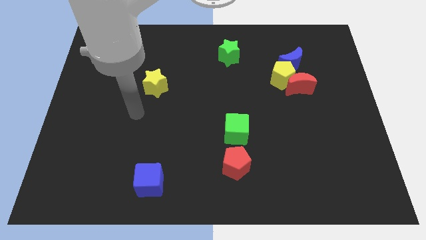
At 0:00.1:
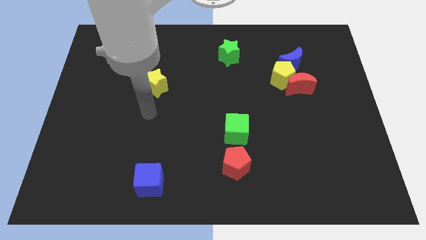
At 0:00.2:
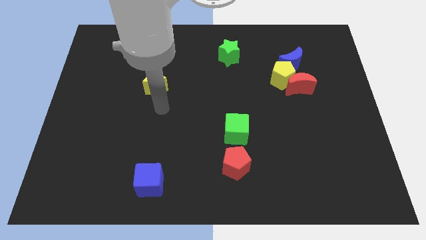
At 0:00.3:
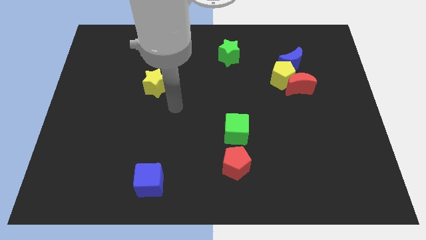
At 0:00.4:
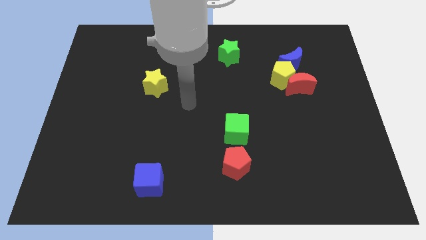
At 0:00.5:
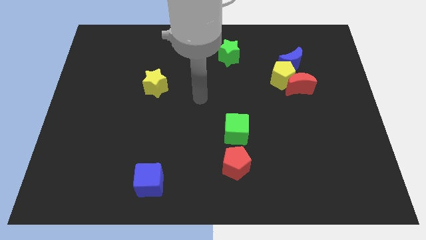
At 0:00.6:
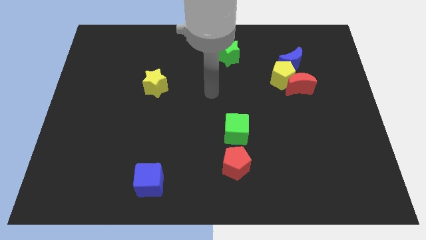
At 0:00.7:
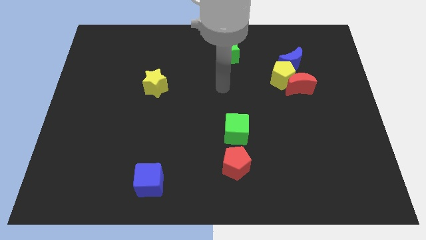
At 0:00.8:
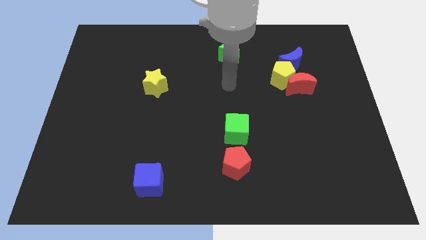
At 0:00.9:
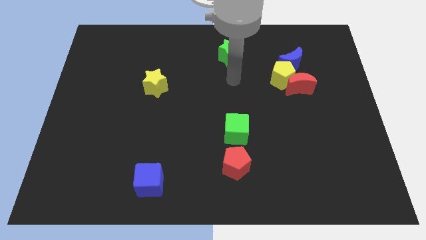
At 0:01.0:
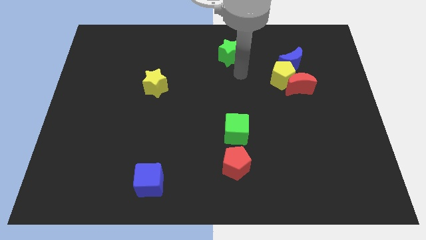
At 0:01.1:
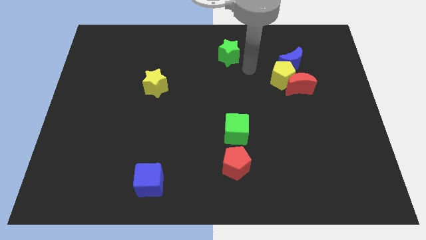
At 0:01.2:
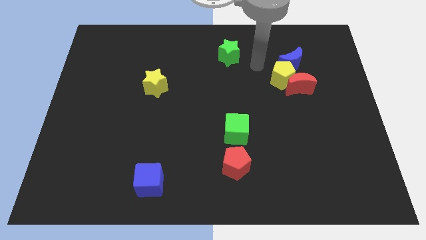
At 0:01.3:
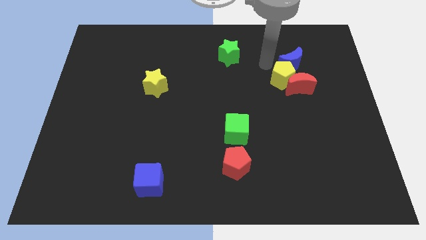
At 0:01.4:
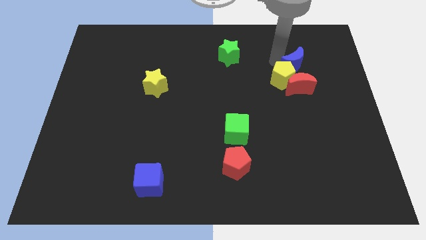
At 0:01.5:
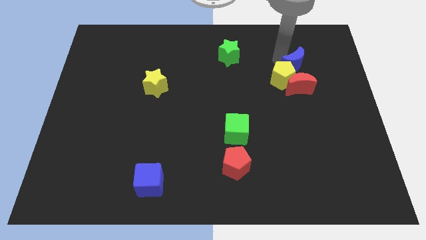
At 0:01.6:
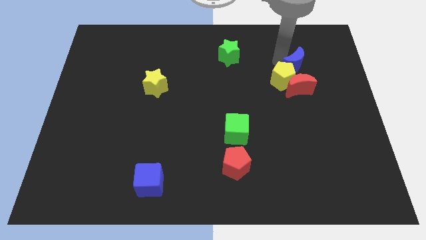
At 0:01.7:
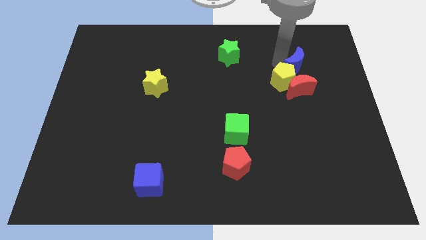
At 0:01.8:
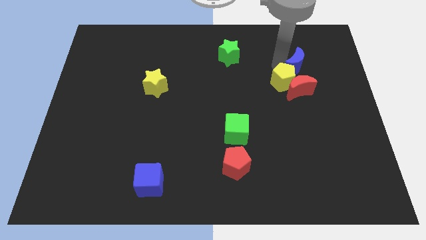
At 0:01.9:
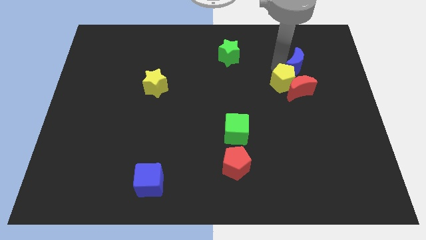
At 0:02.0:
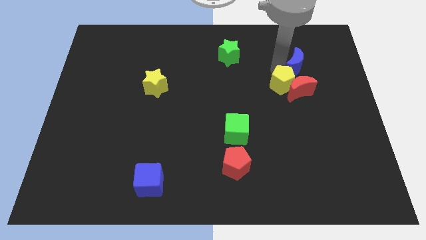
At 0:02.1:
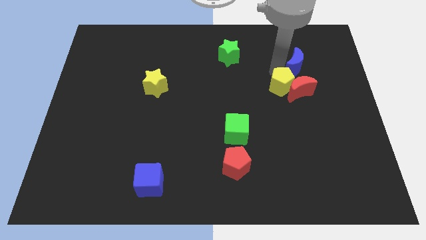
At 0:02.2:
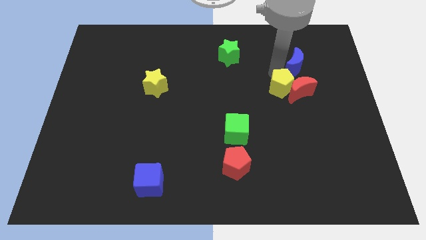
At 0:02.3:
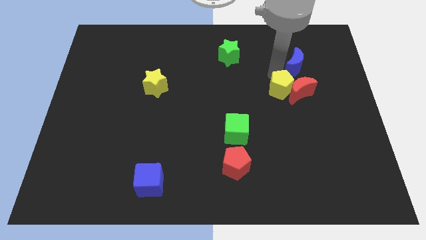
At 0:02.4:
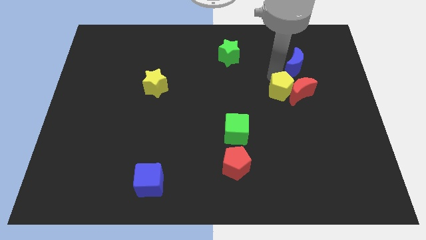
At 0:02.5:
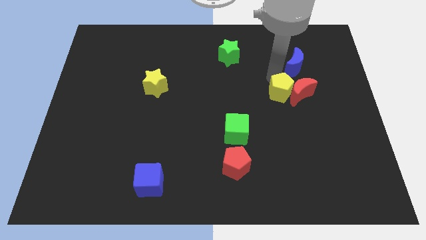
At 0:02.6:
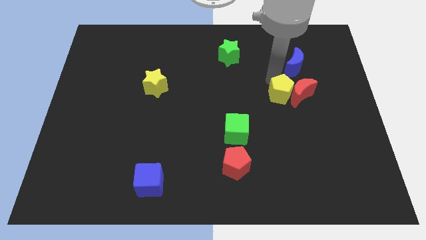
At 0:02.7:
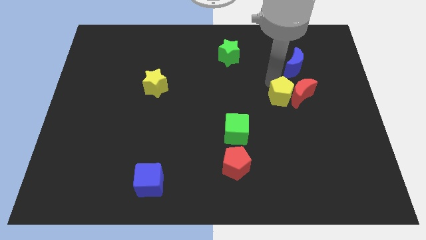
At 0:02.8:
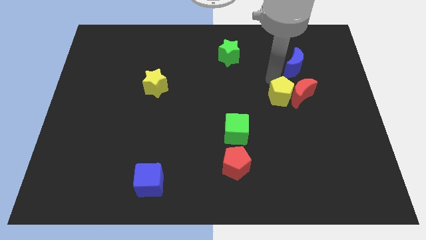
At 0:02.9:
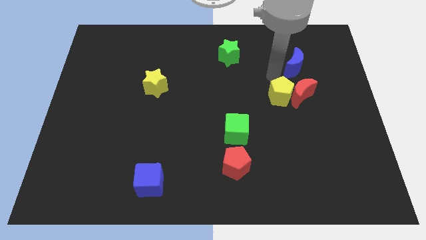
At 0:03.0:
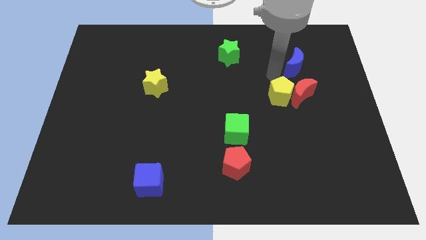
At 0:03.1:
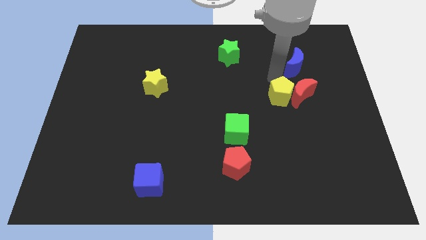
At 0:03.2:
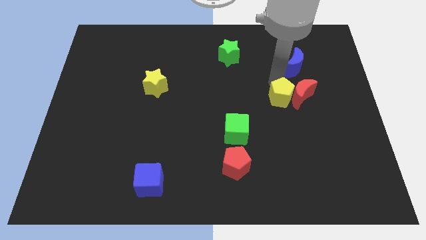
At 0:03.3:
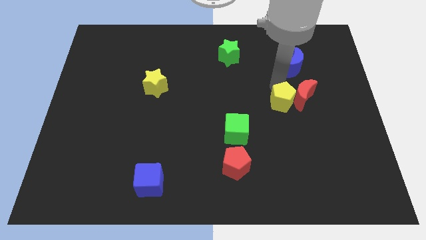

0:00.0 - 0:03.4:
push the yellow pentagon down a little bit

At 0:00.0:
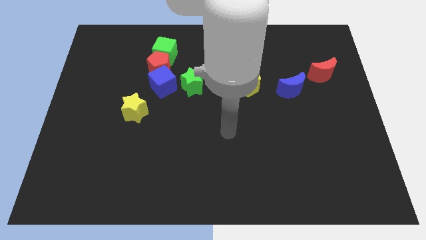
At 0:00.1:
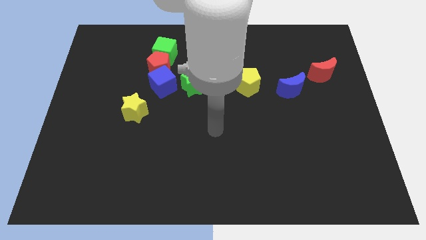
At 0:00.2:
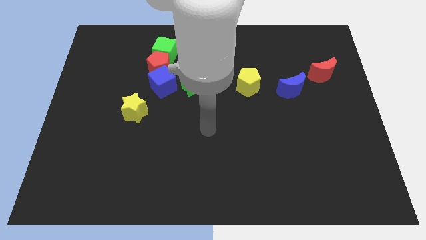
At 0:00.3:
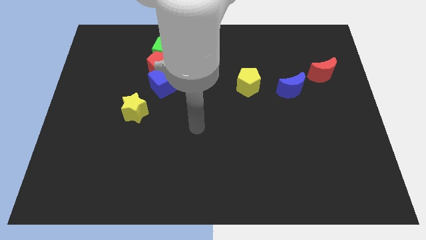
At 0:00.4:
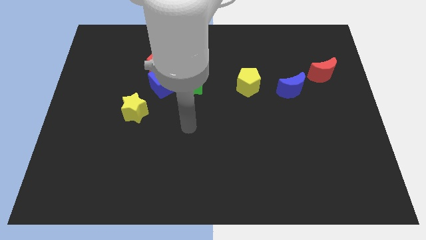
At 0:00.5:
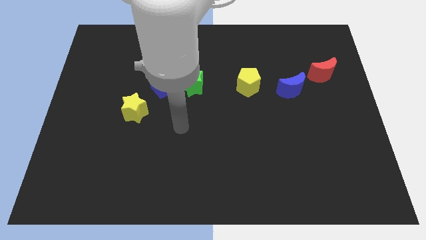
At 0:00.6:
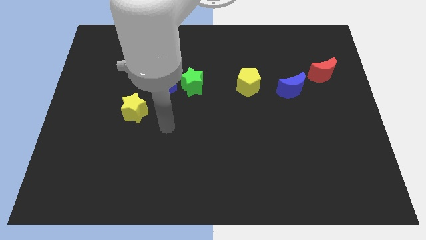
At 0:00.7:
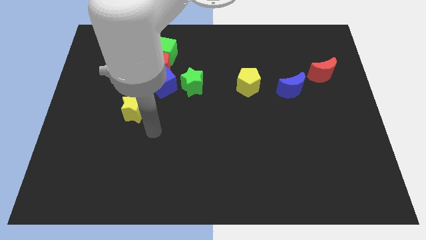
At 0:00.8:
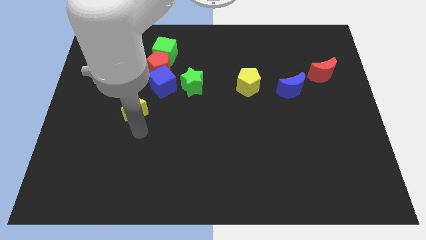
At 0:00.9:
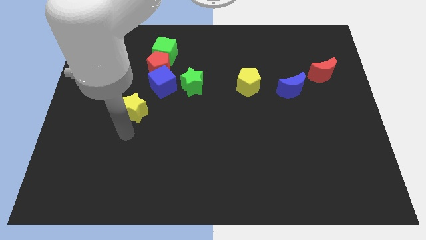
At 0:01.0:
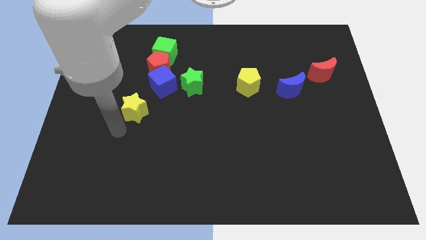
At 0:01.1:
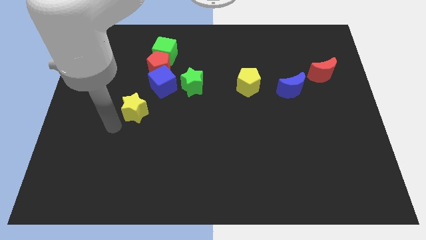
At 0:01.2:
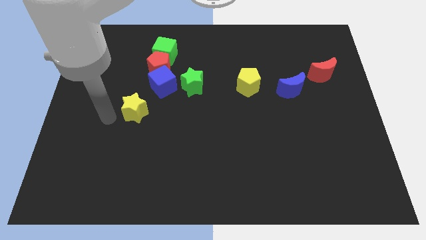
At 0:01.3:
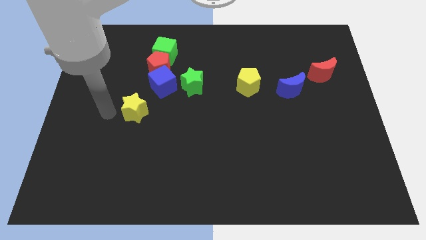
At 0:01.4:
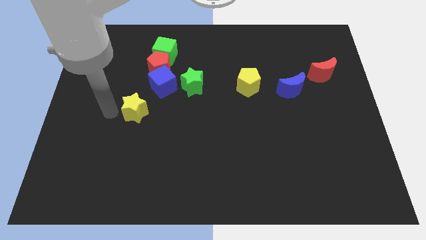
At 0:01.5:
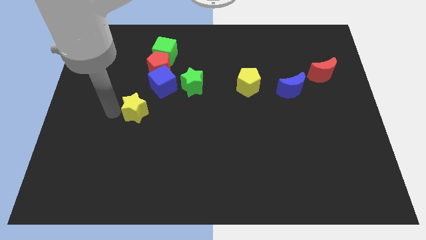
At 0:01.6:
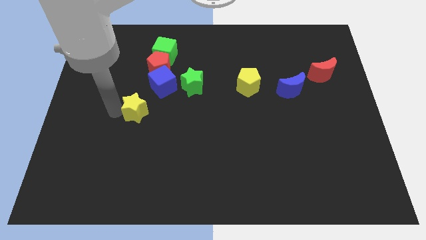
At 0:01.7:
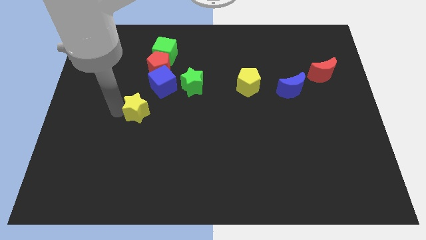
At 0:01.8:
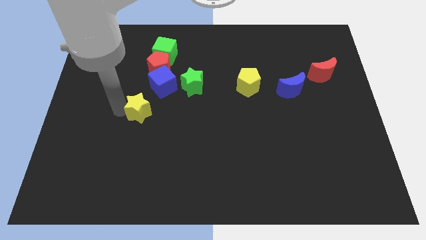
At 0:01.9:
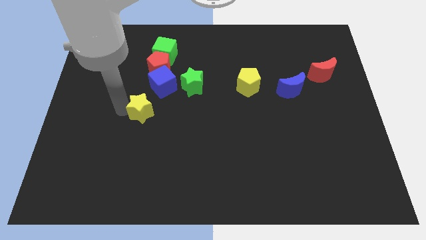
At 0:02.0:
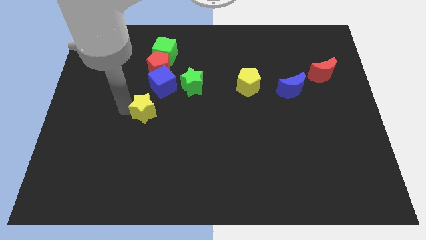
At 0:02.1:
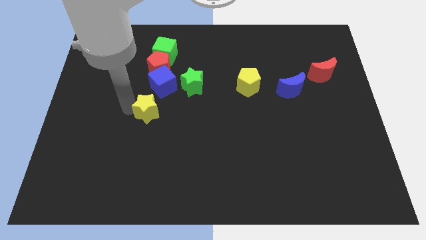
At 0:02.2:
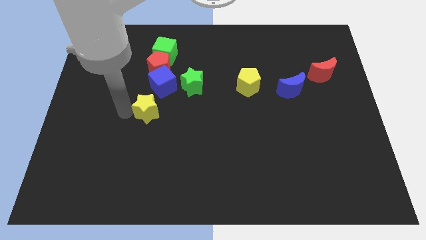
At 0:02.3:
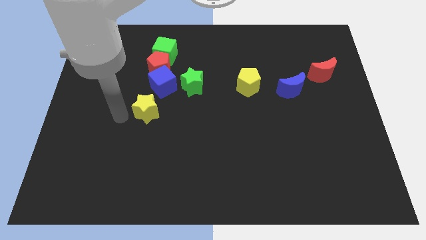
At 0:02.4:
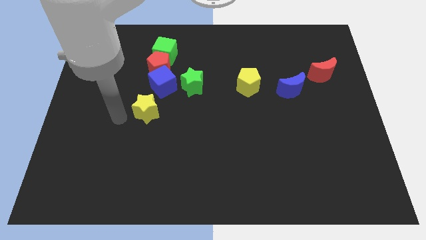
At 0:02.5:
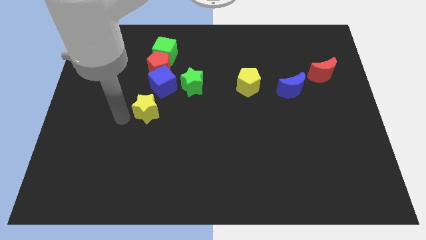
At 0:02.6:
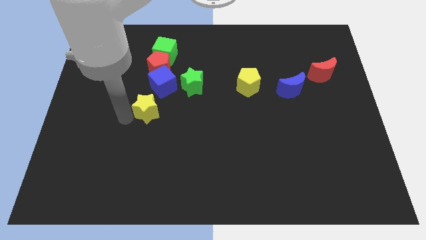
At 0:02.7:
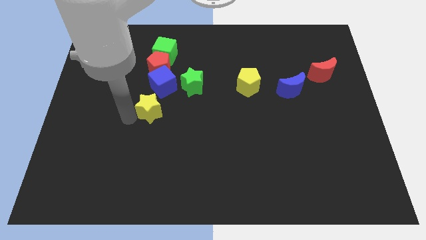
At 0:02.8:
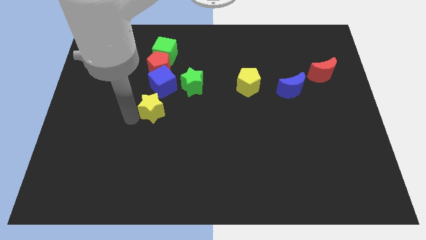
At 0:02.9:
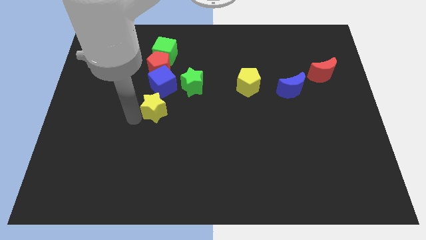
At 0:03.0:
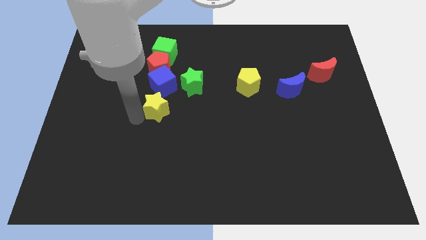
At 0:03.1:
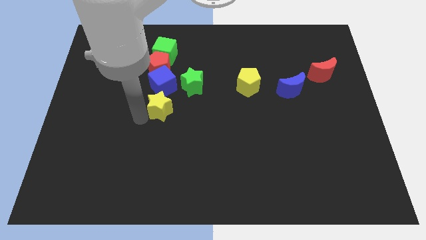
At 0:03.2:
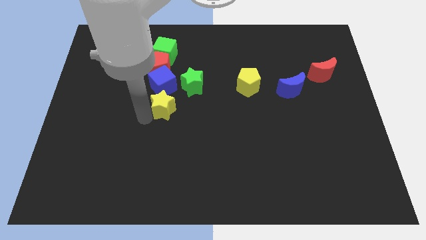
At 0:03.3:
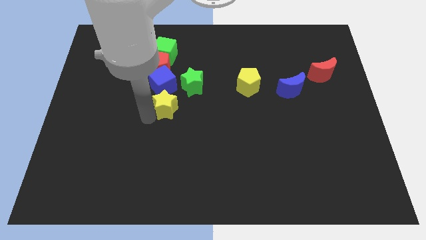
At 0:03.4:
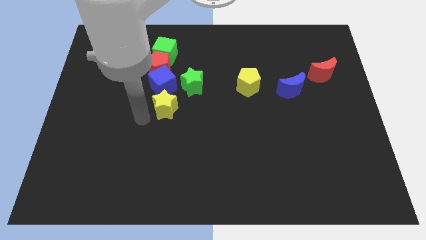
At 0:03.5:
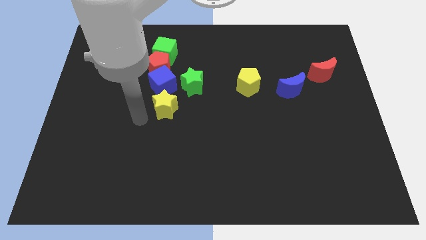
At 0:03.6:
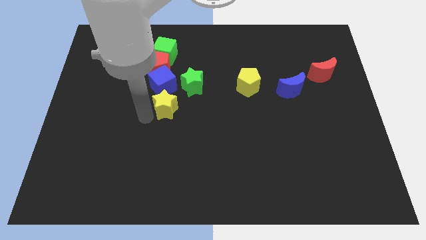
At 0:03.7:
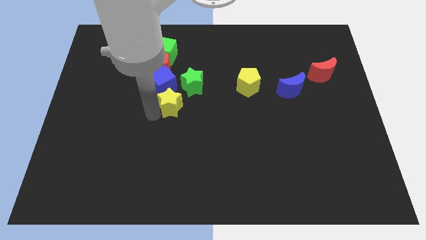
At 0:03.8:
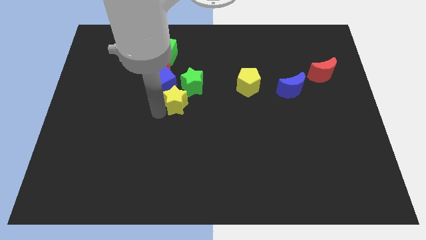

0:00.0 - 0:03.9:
slightly push the yellow star upwards and to the right

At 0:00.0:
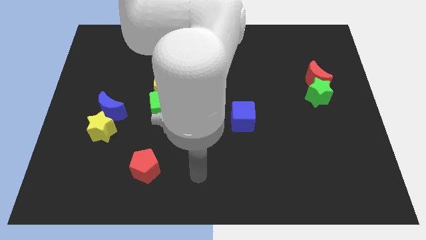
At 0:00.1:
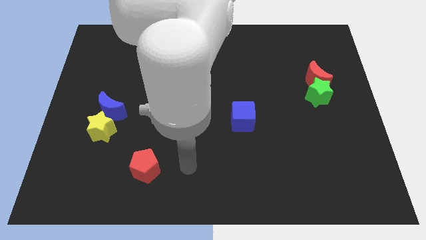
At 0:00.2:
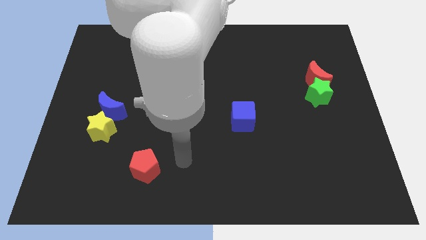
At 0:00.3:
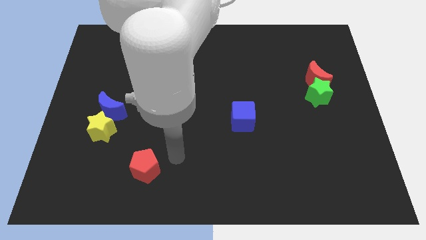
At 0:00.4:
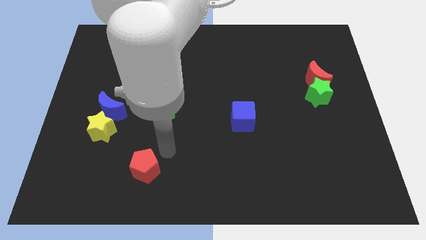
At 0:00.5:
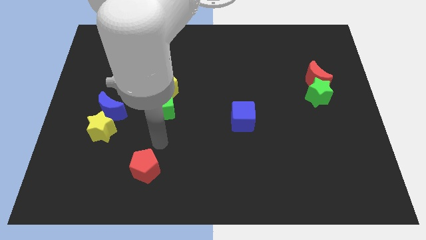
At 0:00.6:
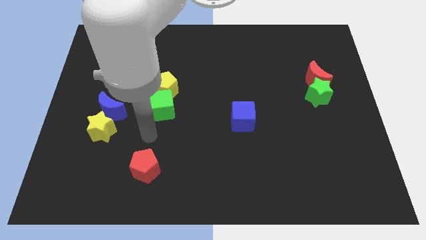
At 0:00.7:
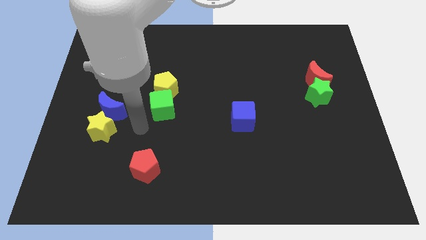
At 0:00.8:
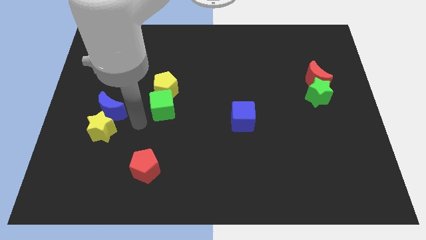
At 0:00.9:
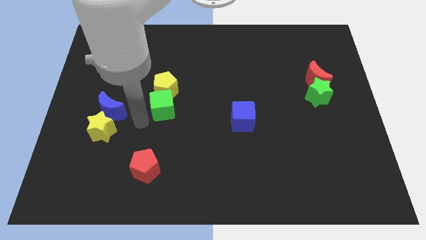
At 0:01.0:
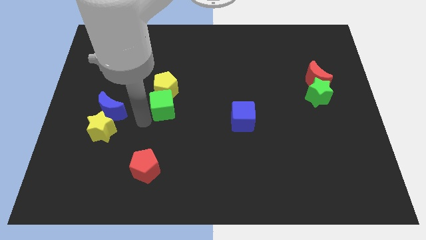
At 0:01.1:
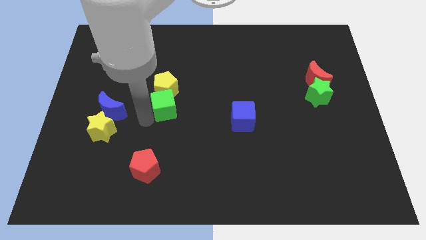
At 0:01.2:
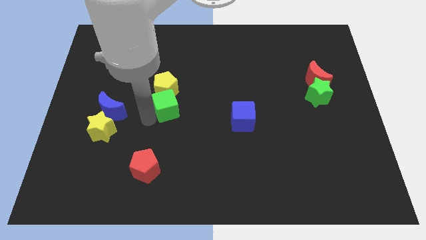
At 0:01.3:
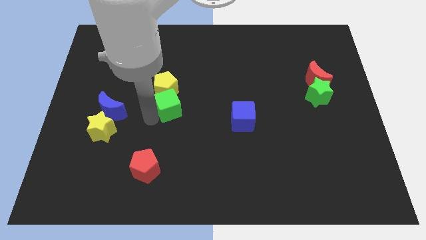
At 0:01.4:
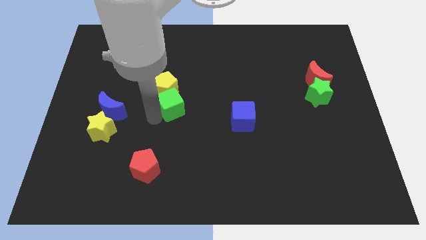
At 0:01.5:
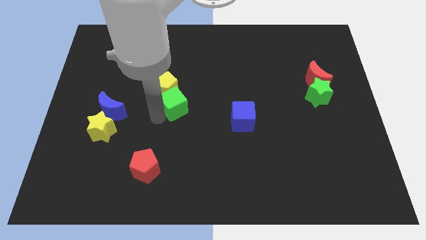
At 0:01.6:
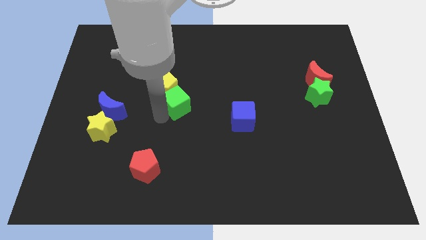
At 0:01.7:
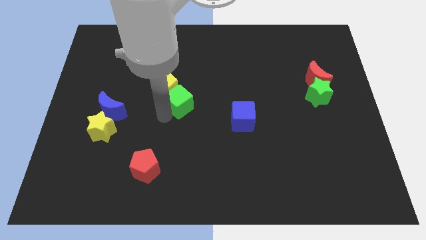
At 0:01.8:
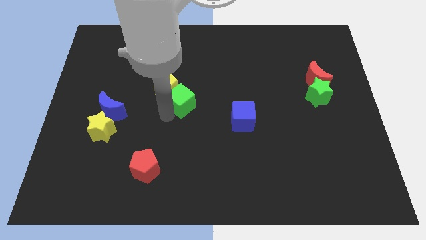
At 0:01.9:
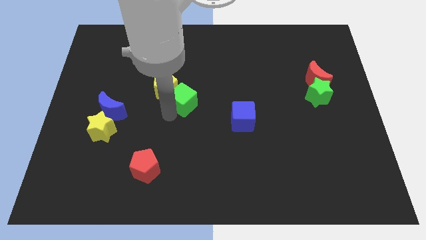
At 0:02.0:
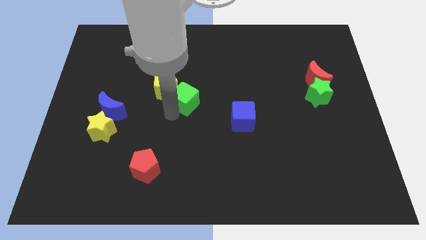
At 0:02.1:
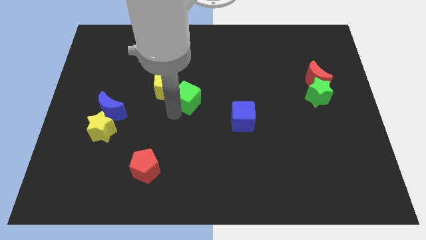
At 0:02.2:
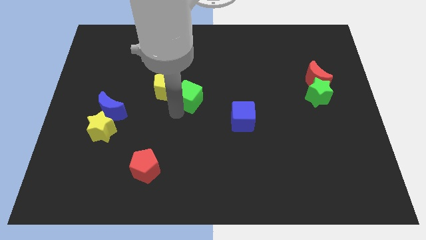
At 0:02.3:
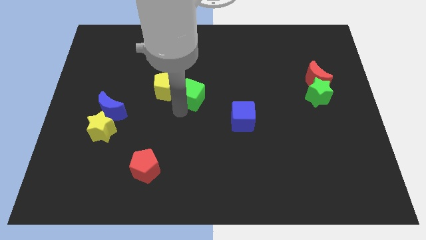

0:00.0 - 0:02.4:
slide the green cube upwards and right a bit
